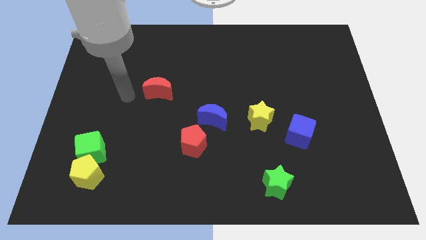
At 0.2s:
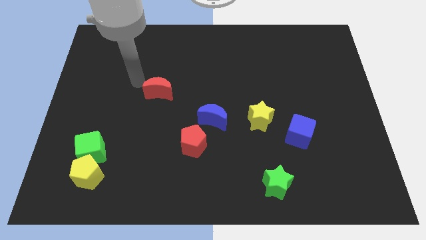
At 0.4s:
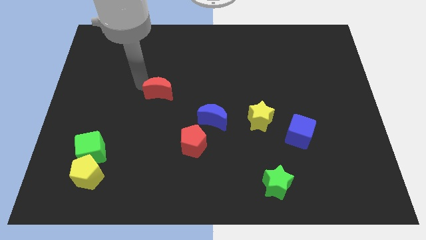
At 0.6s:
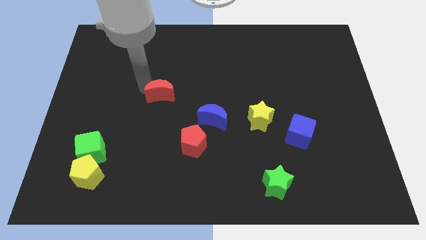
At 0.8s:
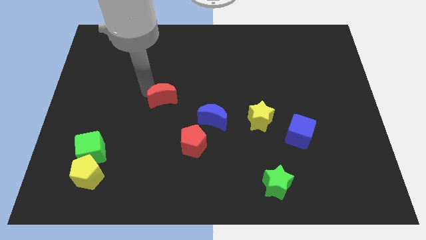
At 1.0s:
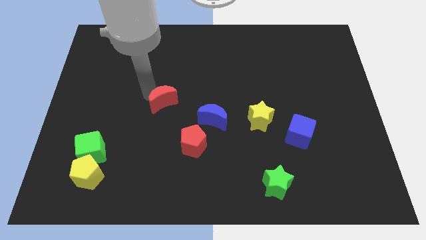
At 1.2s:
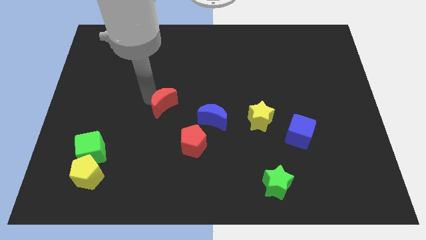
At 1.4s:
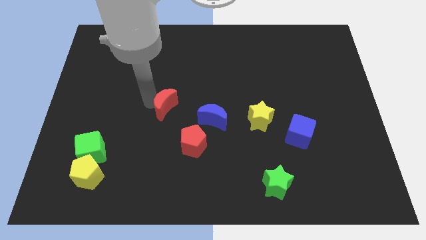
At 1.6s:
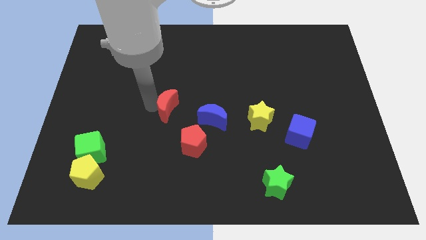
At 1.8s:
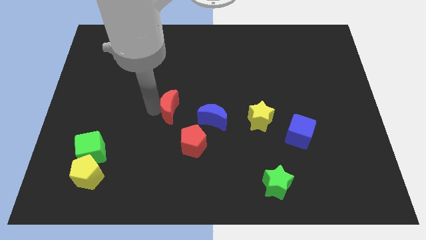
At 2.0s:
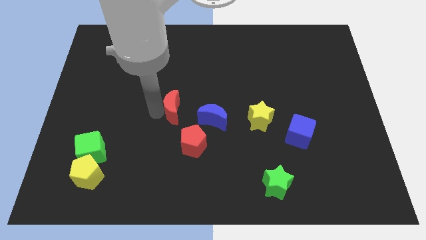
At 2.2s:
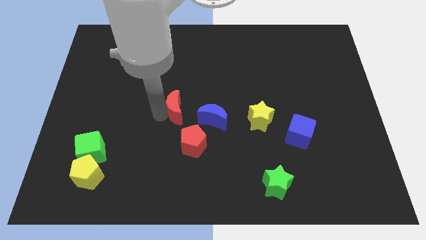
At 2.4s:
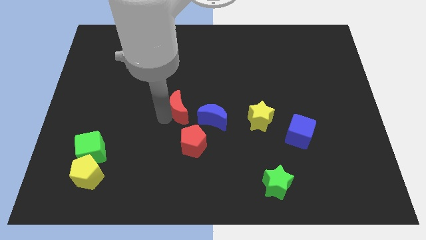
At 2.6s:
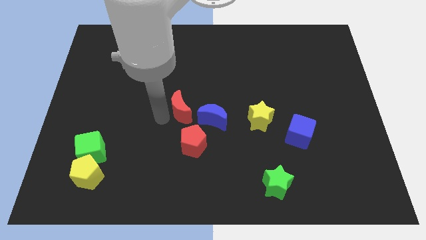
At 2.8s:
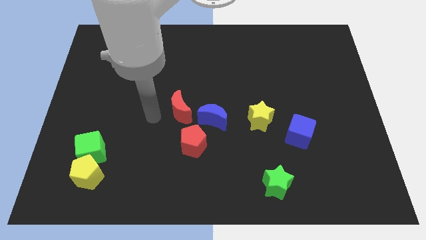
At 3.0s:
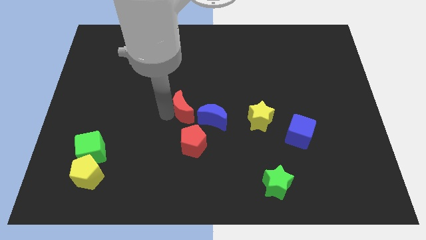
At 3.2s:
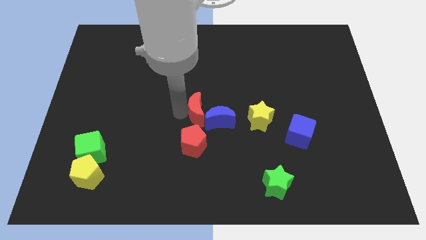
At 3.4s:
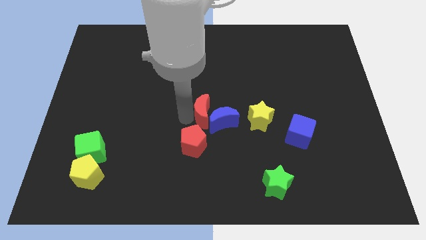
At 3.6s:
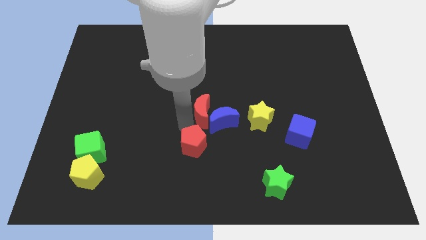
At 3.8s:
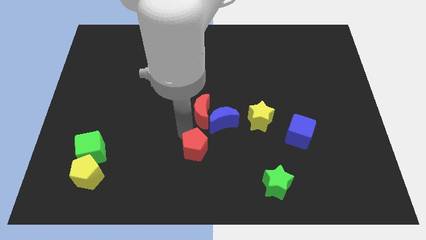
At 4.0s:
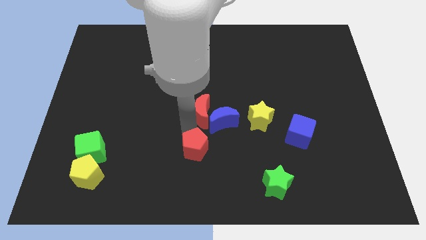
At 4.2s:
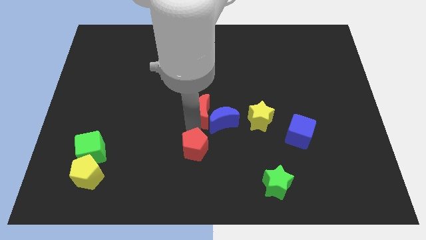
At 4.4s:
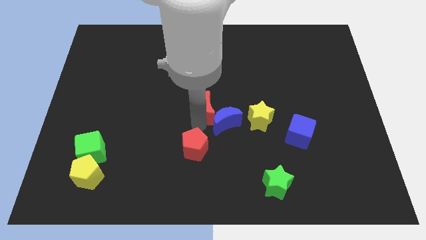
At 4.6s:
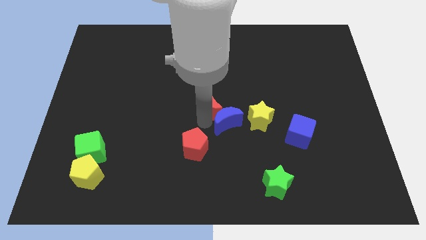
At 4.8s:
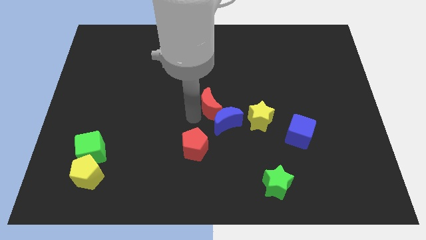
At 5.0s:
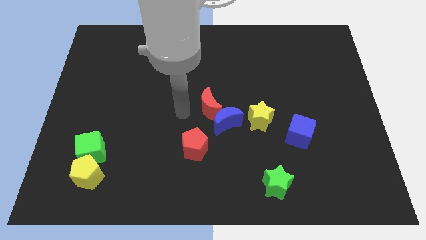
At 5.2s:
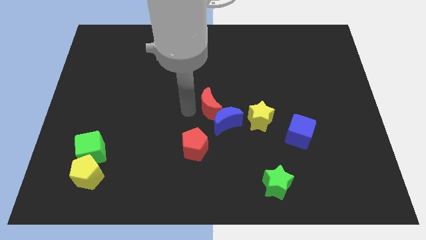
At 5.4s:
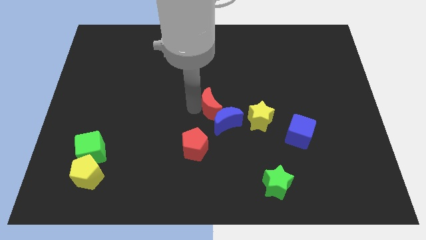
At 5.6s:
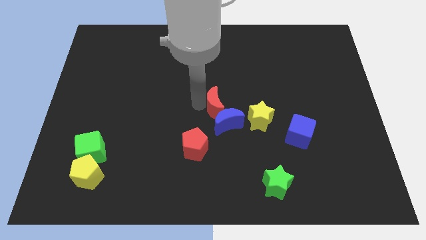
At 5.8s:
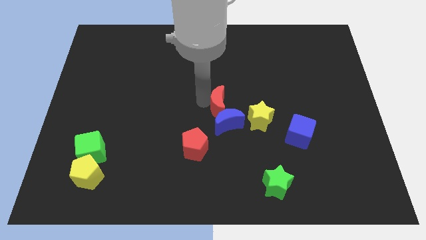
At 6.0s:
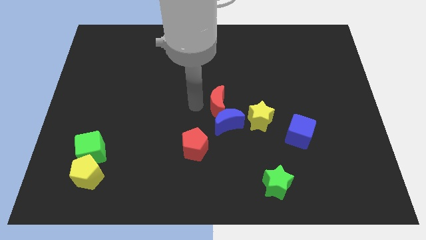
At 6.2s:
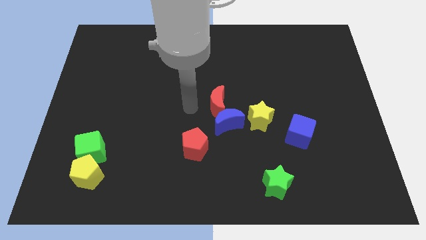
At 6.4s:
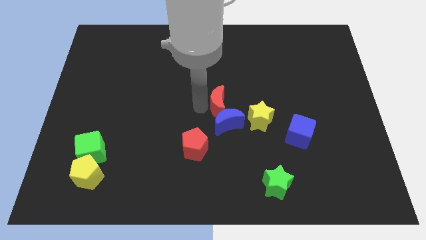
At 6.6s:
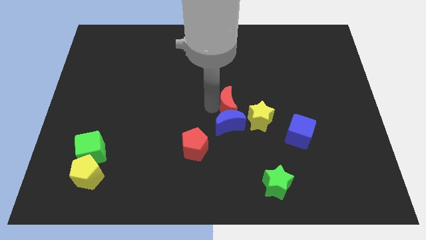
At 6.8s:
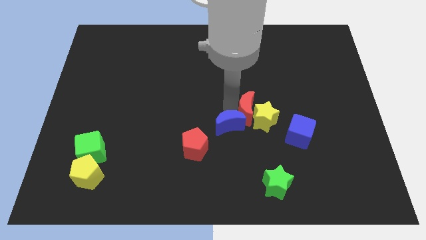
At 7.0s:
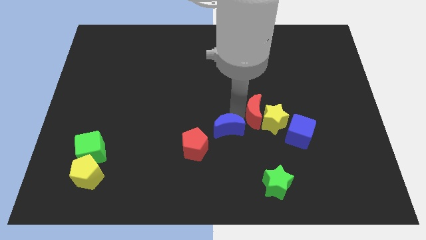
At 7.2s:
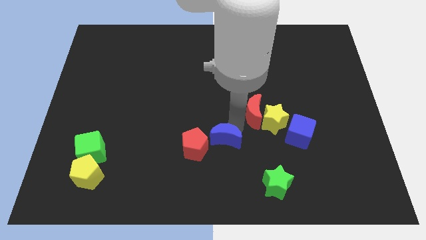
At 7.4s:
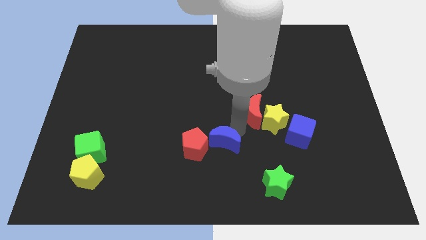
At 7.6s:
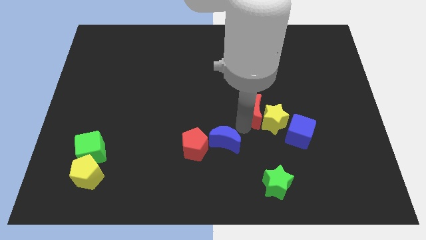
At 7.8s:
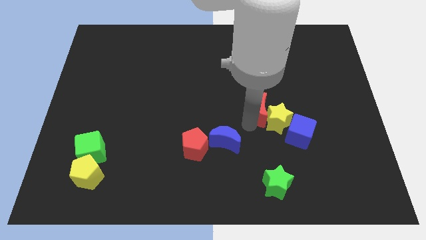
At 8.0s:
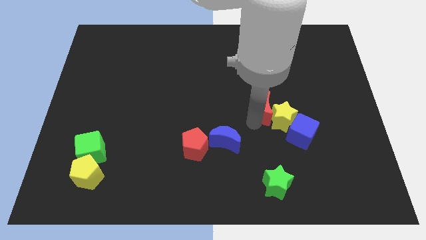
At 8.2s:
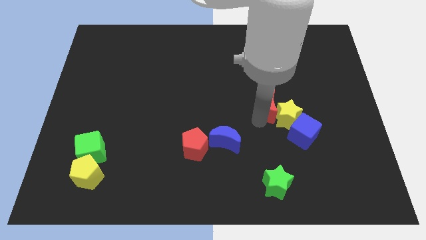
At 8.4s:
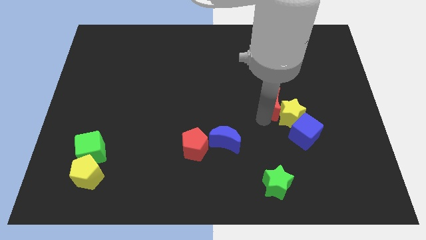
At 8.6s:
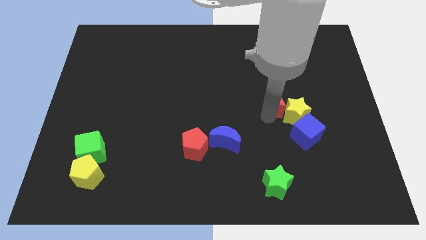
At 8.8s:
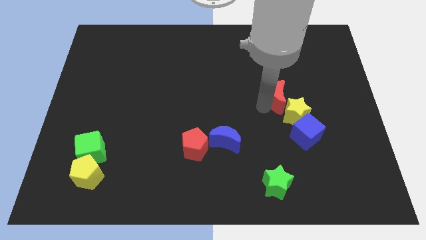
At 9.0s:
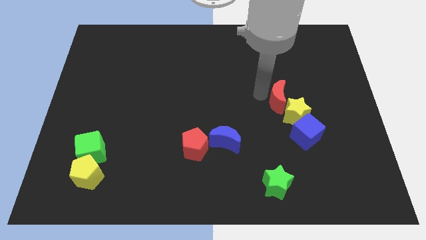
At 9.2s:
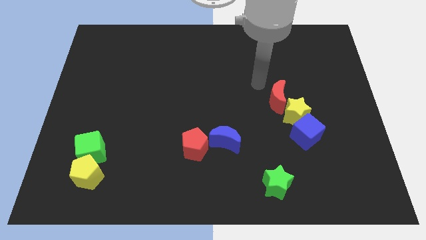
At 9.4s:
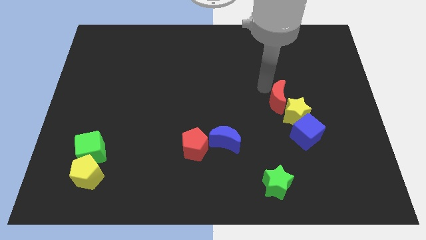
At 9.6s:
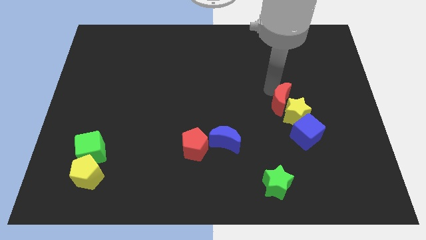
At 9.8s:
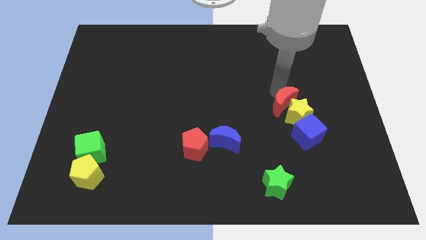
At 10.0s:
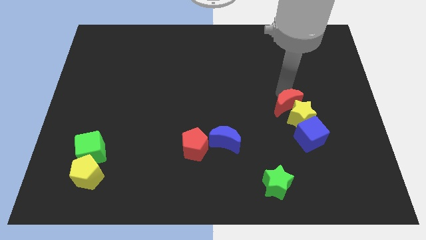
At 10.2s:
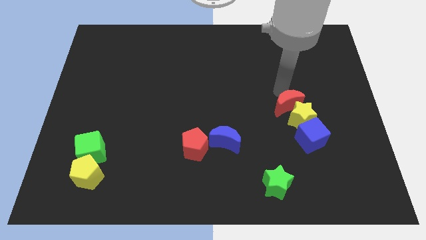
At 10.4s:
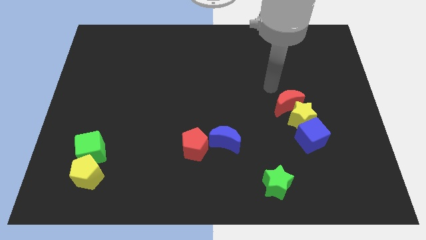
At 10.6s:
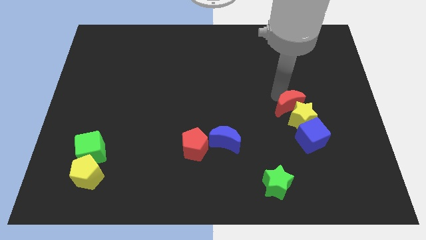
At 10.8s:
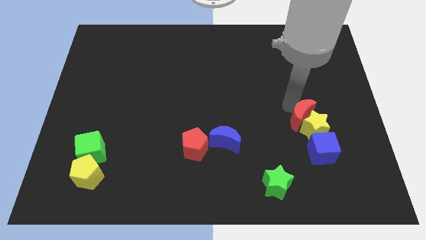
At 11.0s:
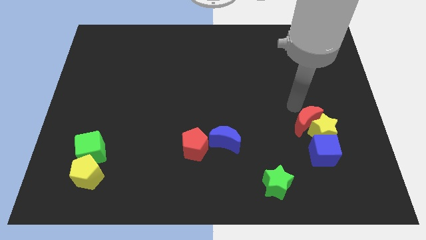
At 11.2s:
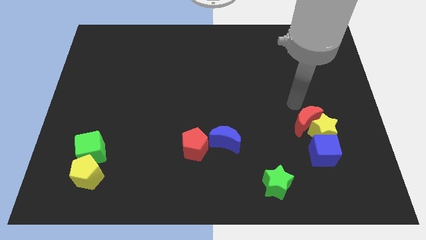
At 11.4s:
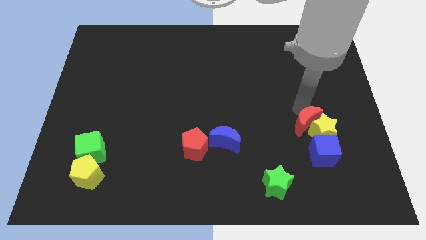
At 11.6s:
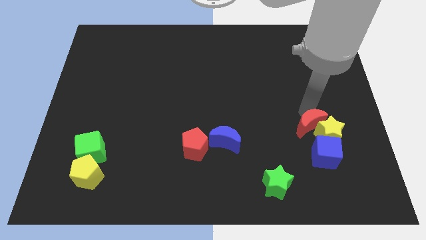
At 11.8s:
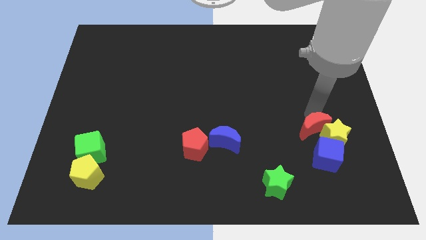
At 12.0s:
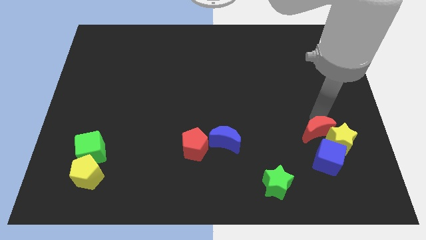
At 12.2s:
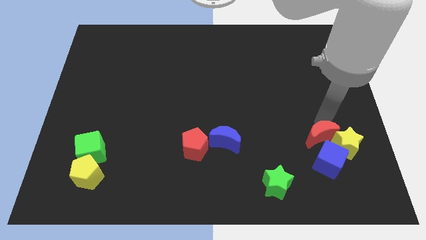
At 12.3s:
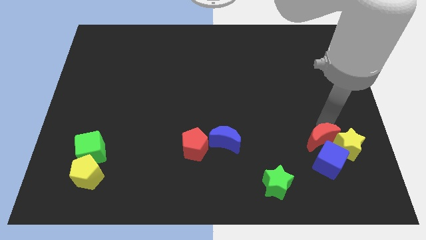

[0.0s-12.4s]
put the red moon next to the blue cube

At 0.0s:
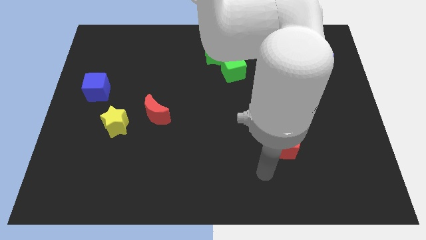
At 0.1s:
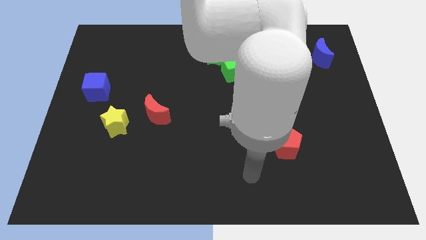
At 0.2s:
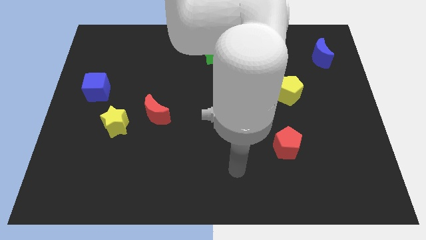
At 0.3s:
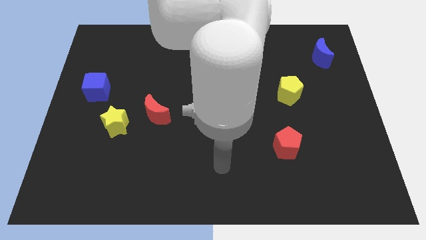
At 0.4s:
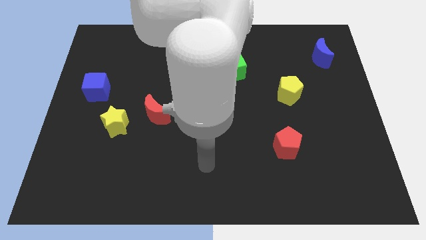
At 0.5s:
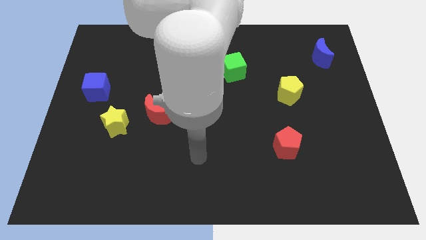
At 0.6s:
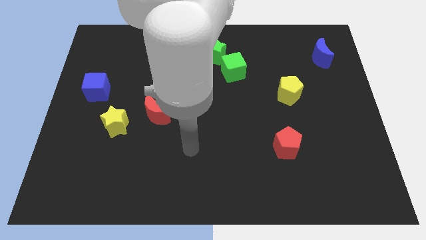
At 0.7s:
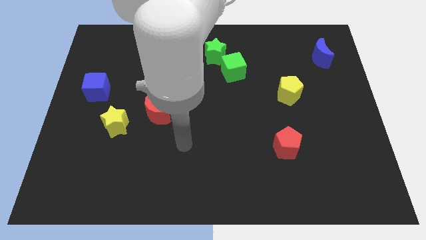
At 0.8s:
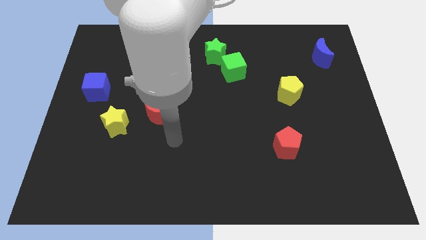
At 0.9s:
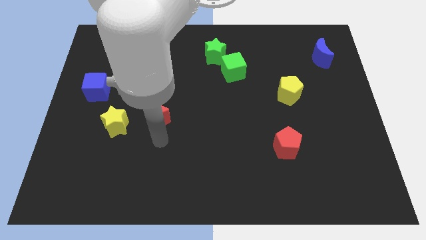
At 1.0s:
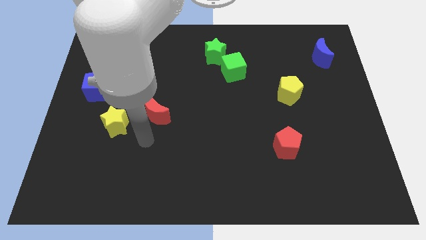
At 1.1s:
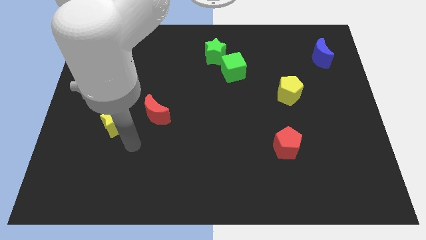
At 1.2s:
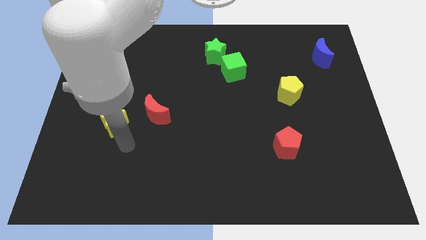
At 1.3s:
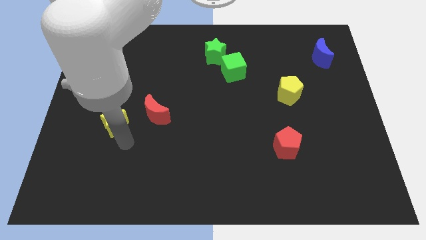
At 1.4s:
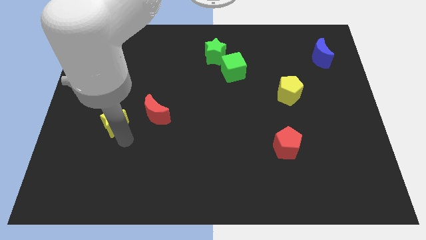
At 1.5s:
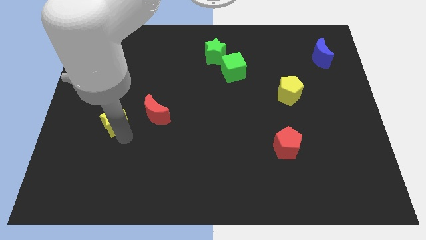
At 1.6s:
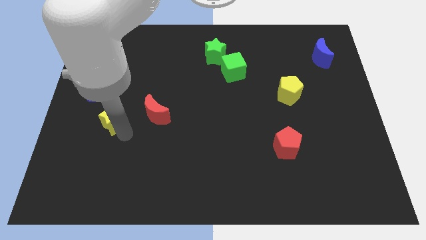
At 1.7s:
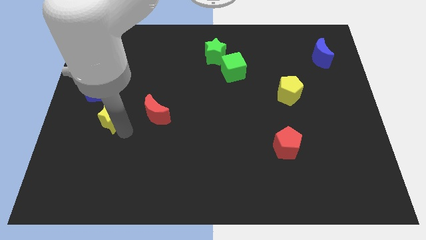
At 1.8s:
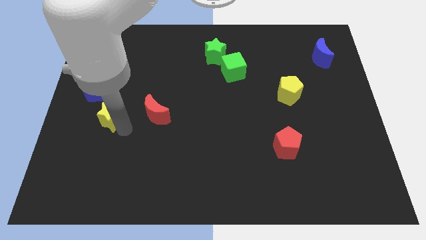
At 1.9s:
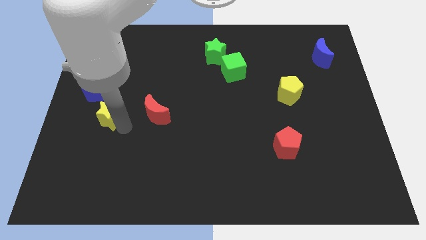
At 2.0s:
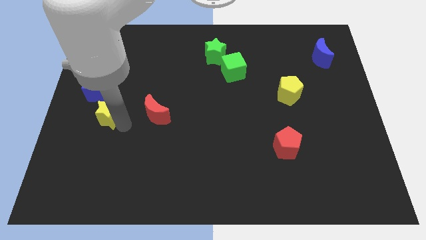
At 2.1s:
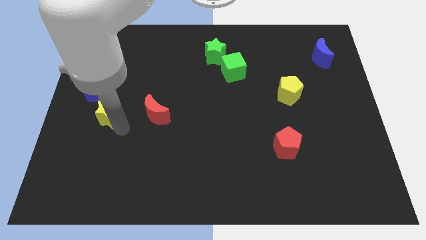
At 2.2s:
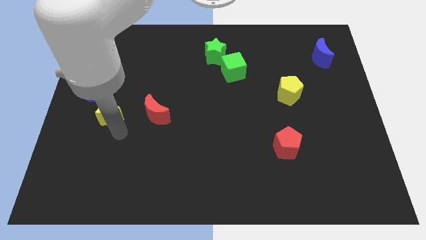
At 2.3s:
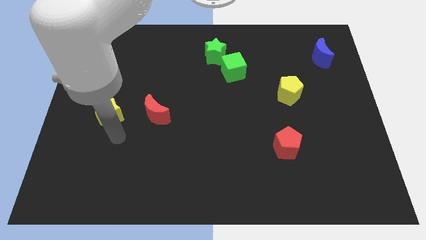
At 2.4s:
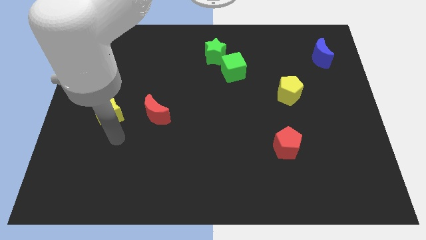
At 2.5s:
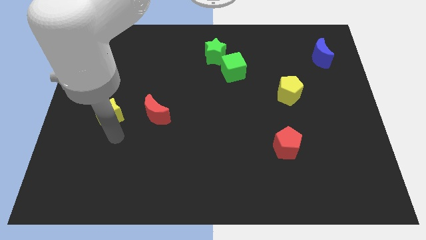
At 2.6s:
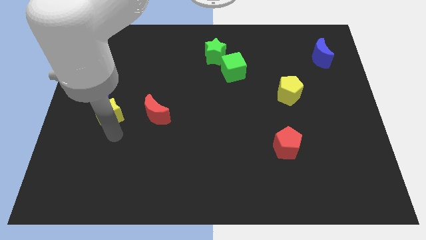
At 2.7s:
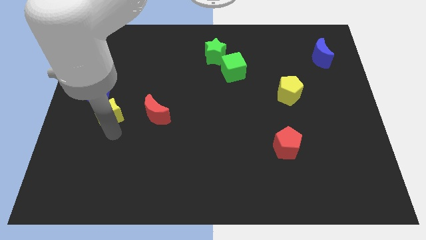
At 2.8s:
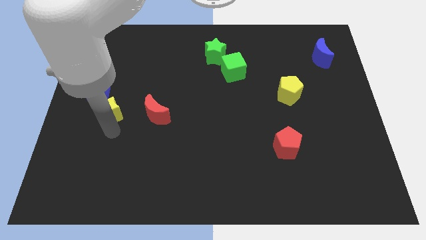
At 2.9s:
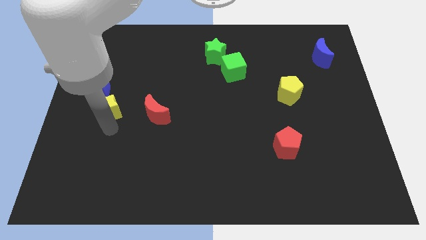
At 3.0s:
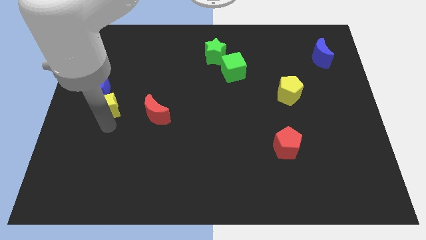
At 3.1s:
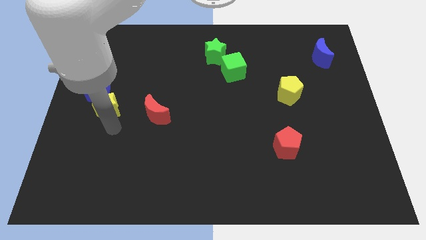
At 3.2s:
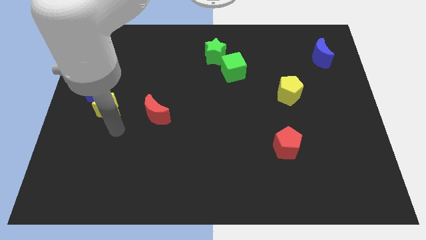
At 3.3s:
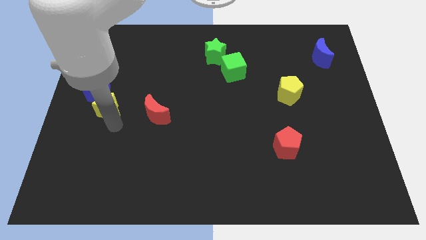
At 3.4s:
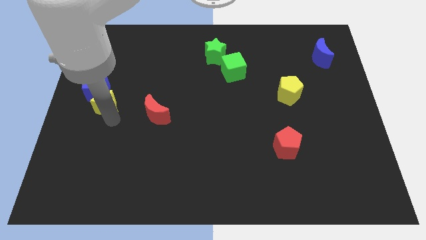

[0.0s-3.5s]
put the yellow star close to the blue cube
